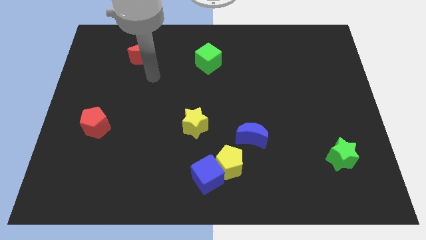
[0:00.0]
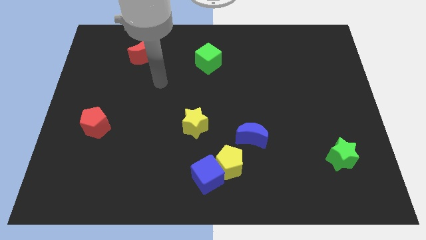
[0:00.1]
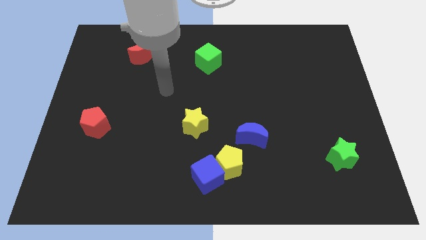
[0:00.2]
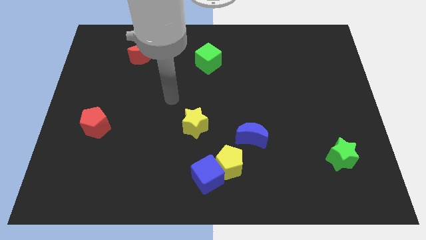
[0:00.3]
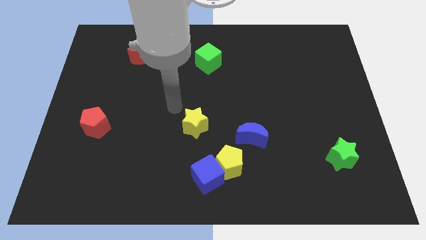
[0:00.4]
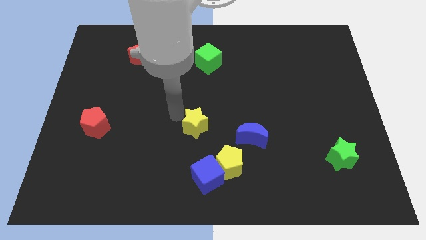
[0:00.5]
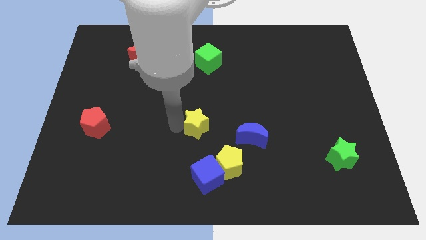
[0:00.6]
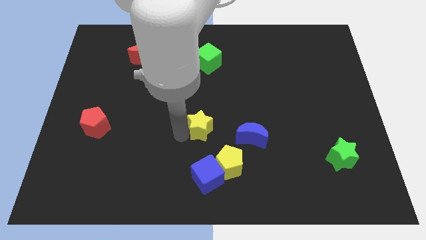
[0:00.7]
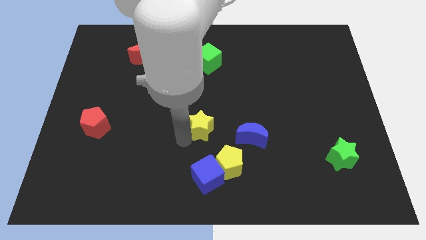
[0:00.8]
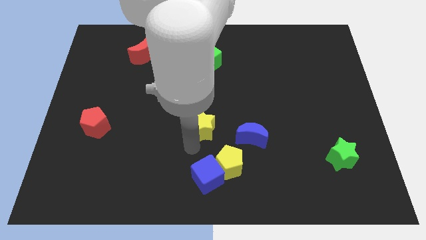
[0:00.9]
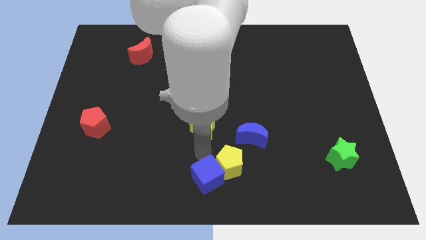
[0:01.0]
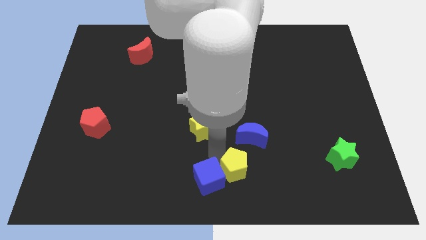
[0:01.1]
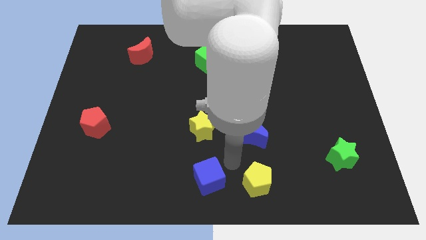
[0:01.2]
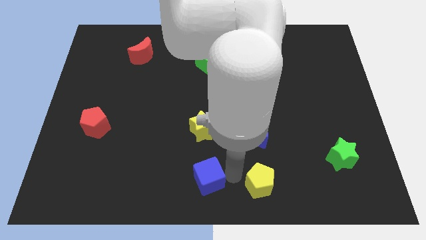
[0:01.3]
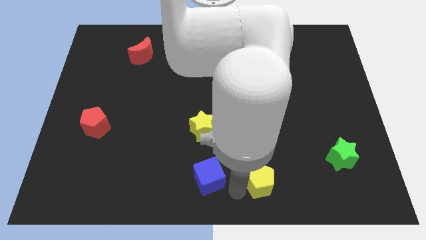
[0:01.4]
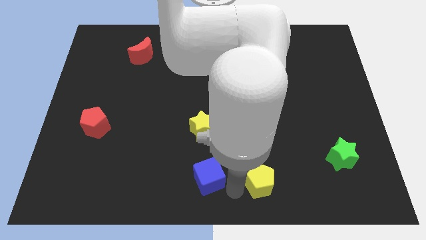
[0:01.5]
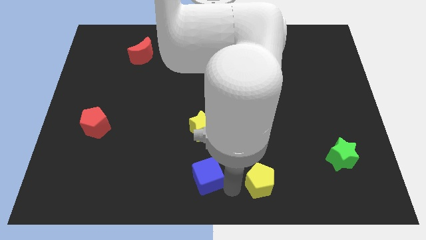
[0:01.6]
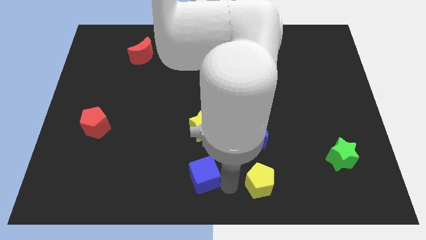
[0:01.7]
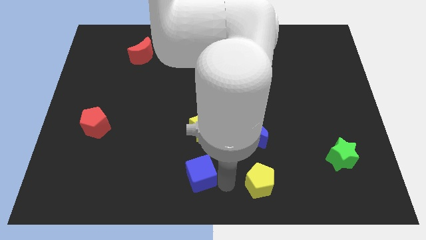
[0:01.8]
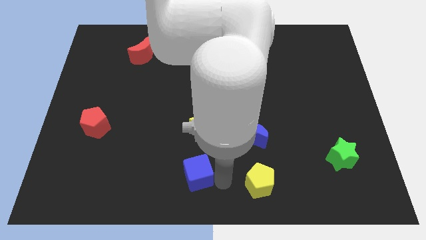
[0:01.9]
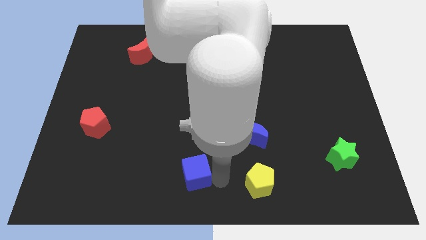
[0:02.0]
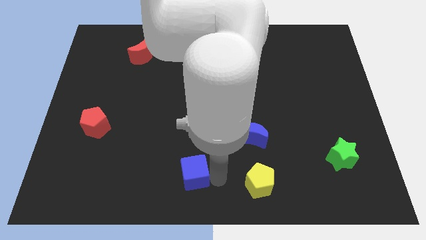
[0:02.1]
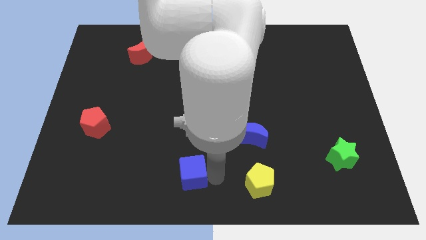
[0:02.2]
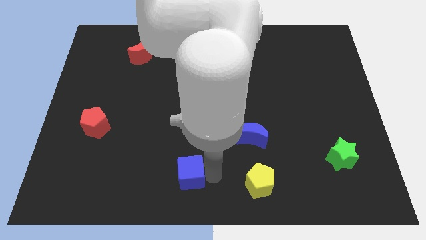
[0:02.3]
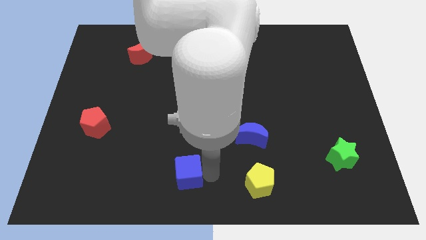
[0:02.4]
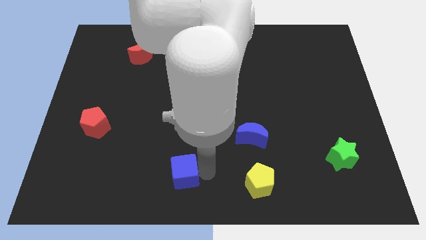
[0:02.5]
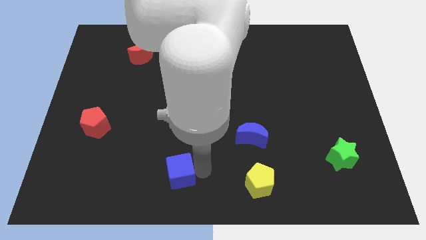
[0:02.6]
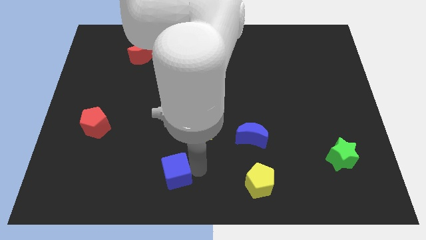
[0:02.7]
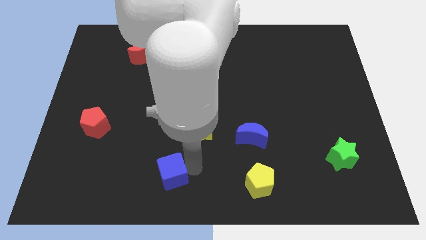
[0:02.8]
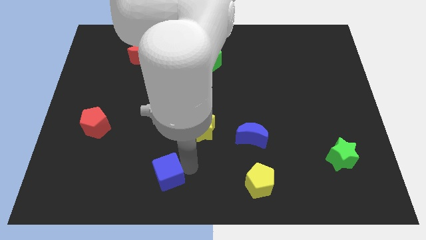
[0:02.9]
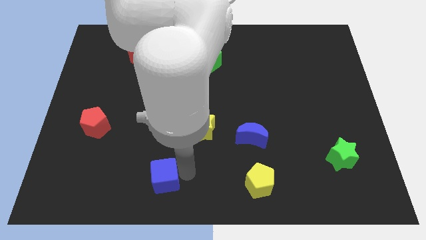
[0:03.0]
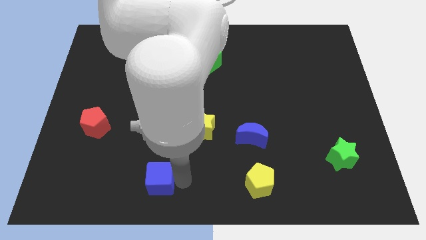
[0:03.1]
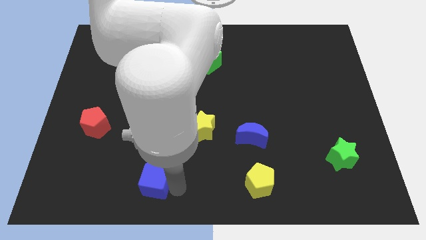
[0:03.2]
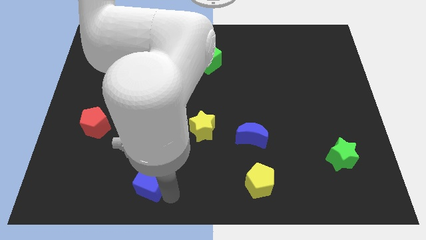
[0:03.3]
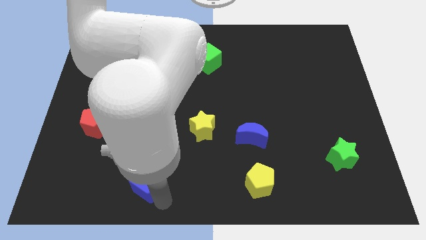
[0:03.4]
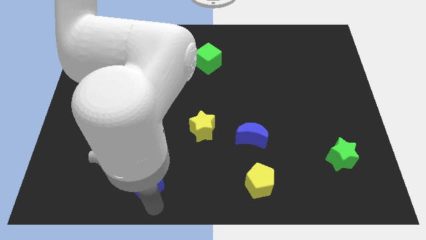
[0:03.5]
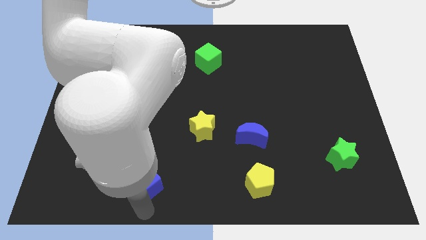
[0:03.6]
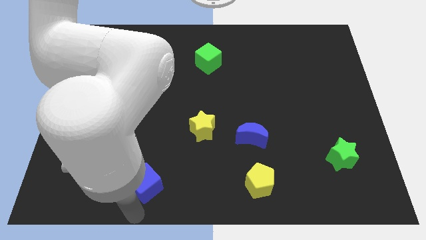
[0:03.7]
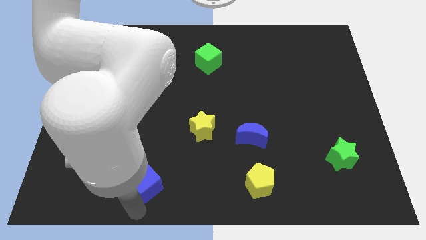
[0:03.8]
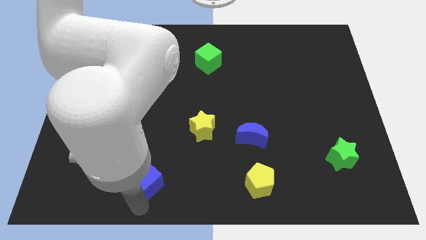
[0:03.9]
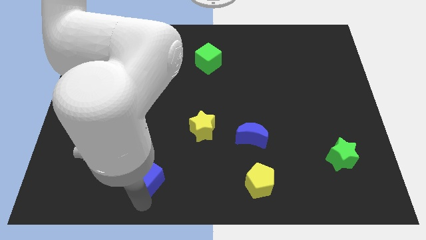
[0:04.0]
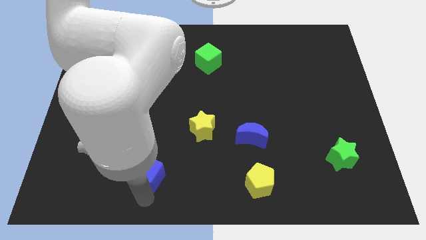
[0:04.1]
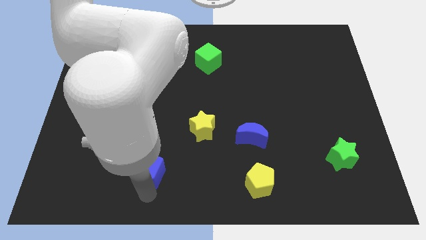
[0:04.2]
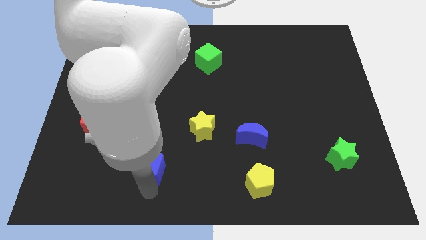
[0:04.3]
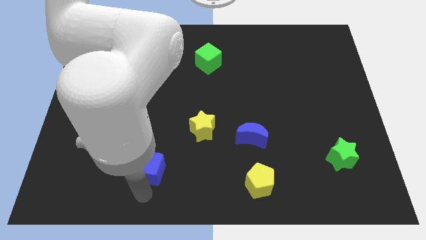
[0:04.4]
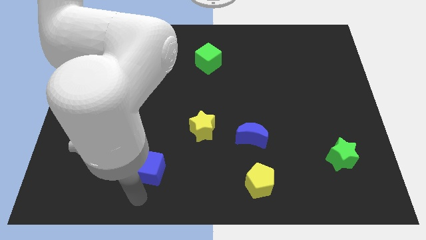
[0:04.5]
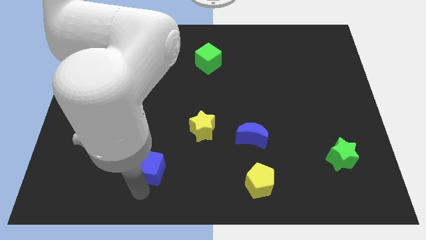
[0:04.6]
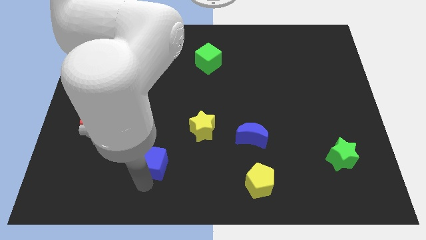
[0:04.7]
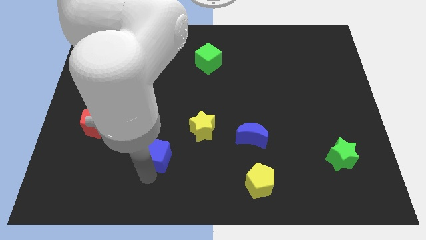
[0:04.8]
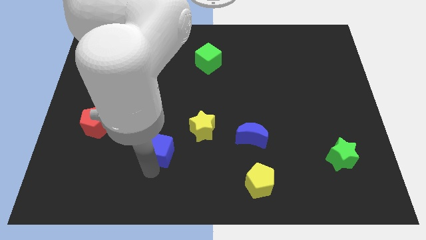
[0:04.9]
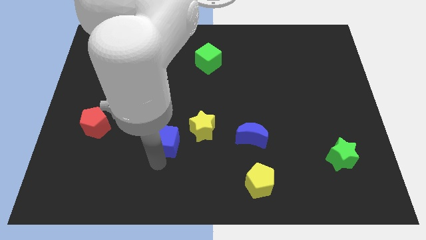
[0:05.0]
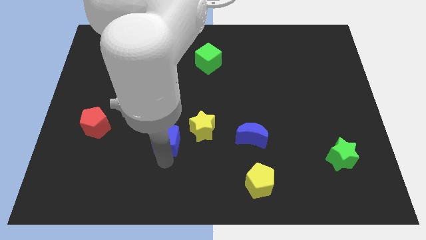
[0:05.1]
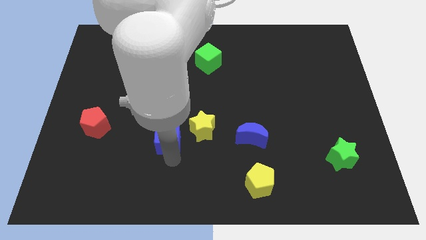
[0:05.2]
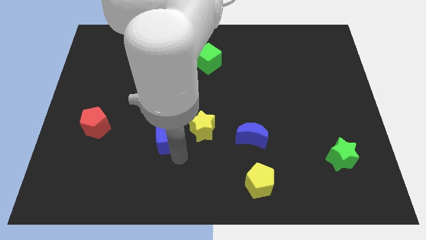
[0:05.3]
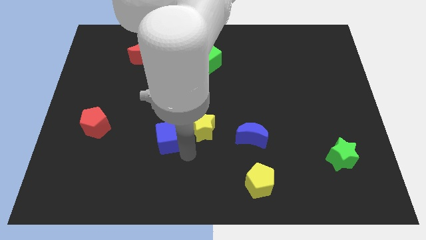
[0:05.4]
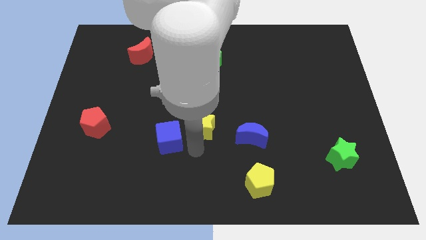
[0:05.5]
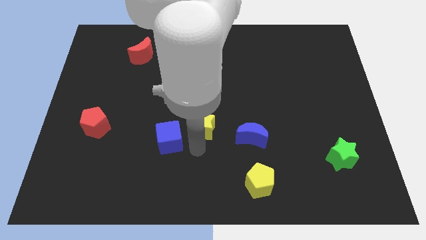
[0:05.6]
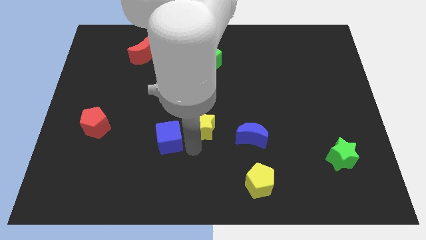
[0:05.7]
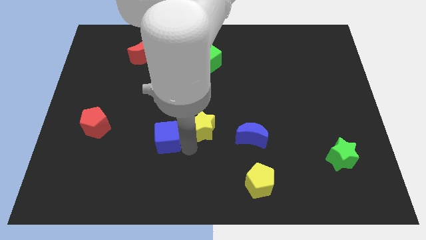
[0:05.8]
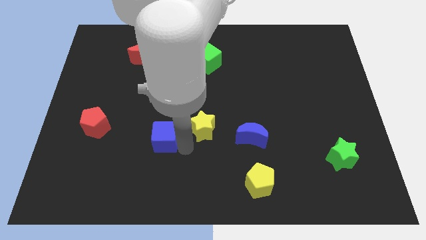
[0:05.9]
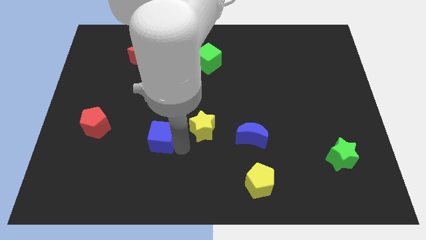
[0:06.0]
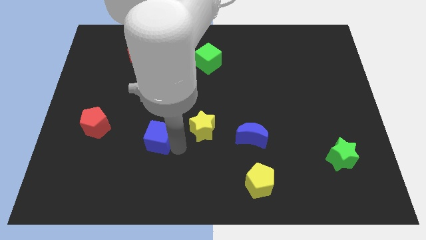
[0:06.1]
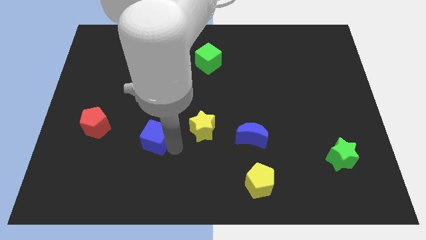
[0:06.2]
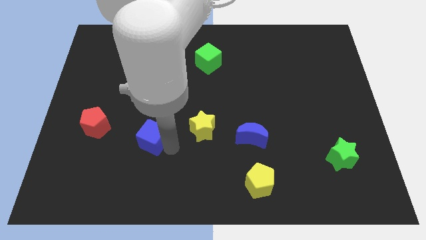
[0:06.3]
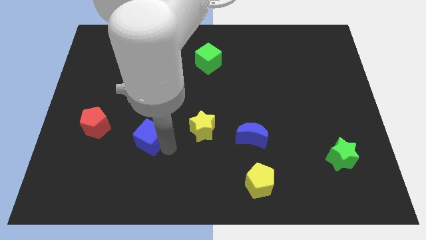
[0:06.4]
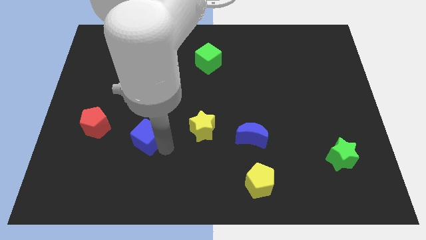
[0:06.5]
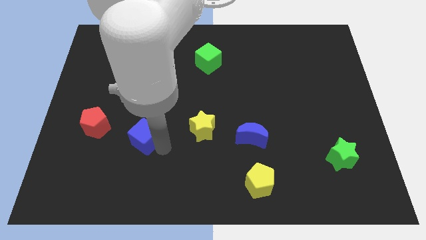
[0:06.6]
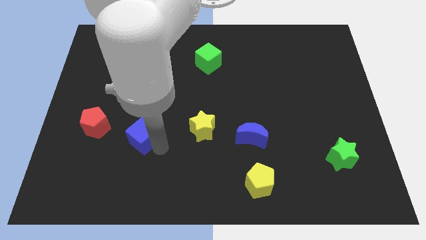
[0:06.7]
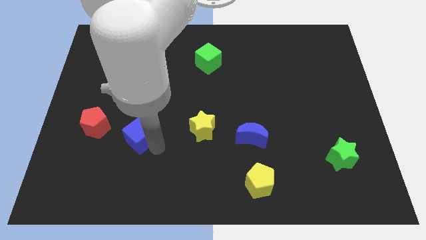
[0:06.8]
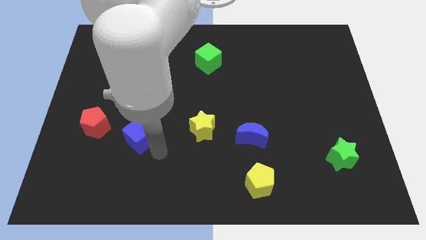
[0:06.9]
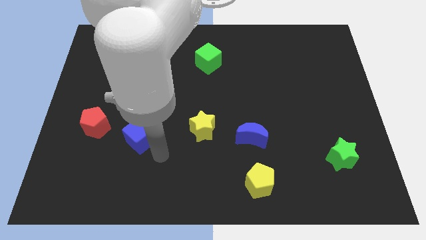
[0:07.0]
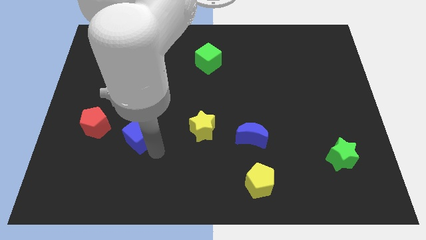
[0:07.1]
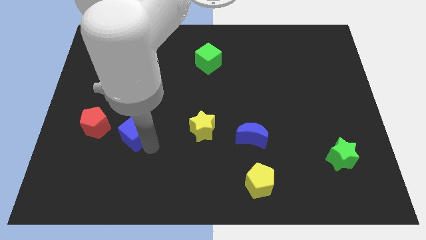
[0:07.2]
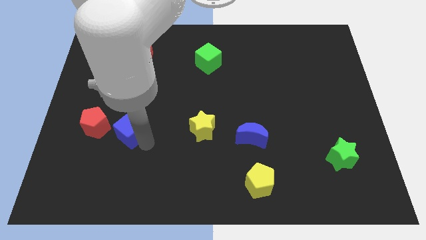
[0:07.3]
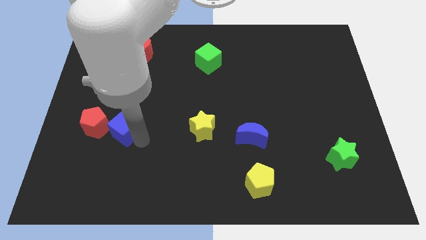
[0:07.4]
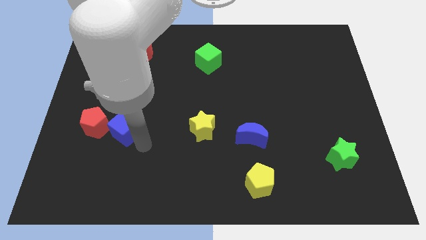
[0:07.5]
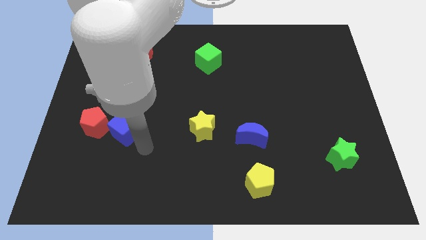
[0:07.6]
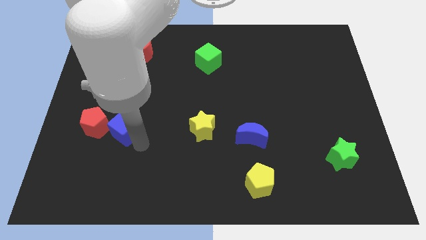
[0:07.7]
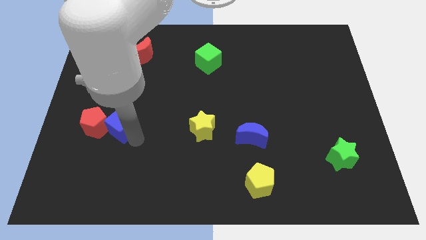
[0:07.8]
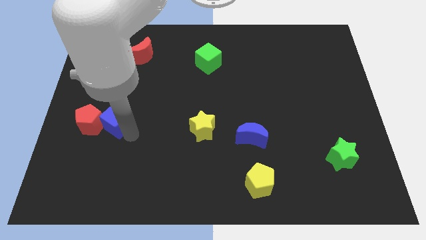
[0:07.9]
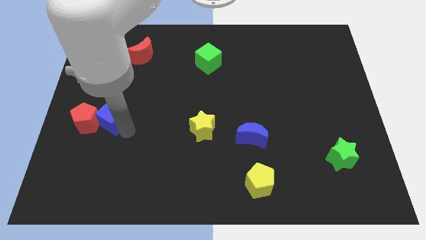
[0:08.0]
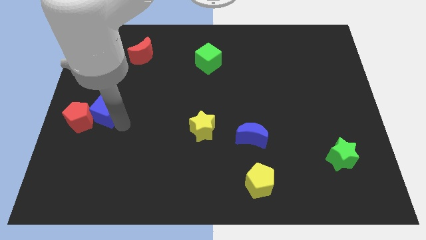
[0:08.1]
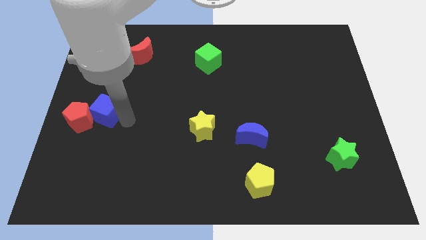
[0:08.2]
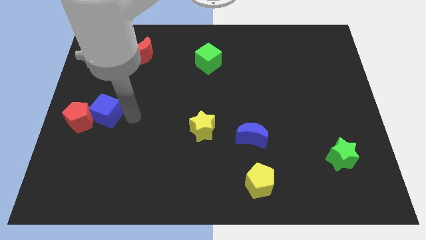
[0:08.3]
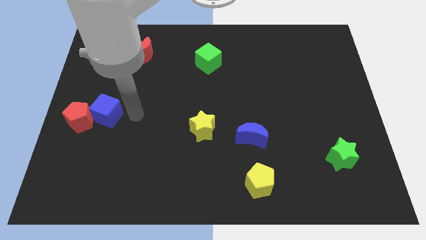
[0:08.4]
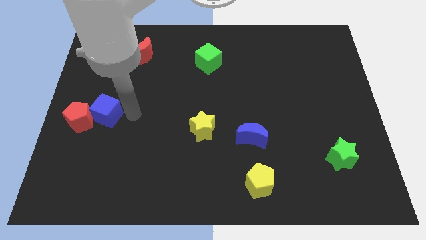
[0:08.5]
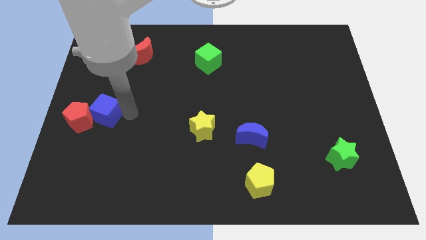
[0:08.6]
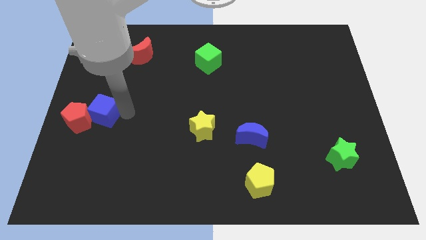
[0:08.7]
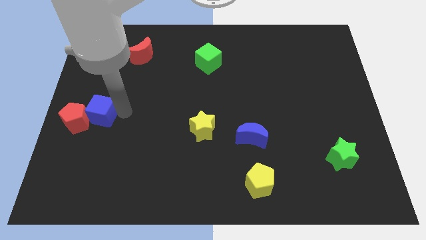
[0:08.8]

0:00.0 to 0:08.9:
put the blue cube to the center left
